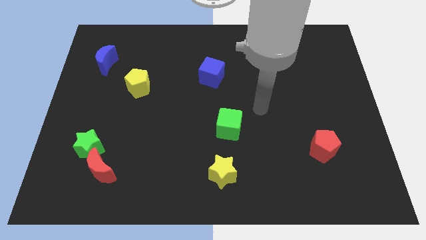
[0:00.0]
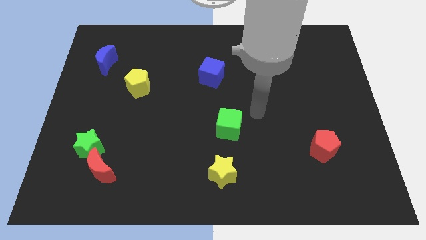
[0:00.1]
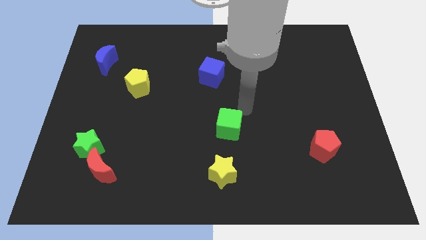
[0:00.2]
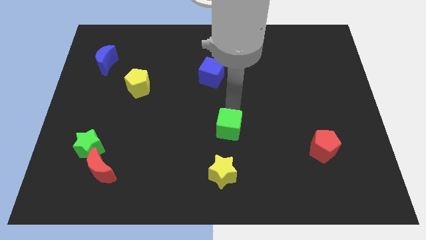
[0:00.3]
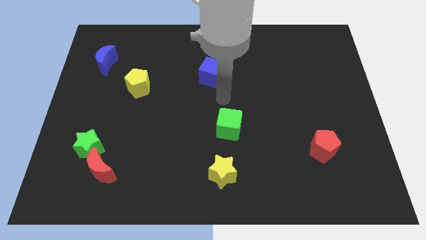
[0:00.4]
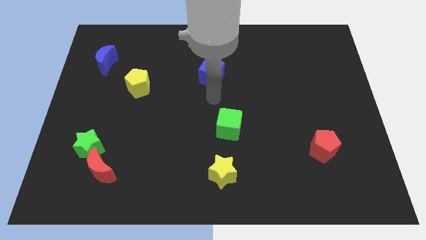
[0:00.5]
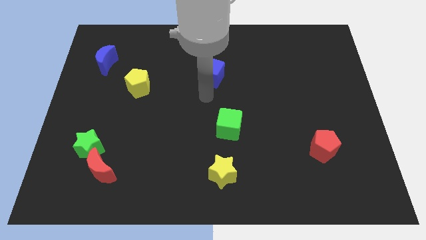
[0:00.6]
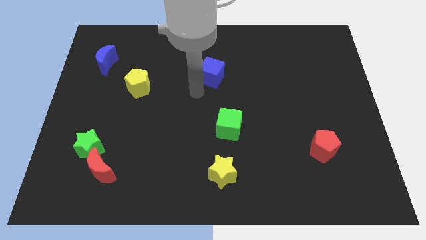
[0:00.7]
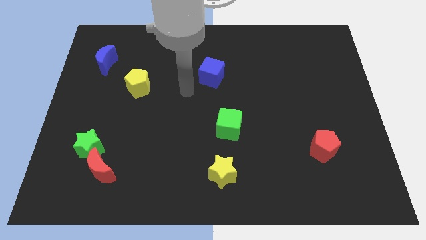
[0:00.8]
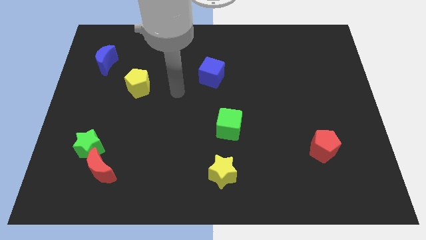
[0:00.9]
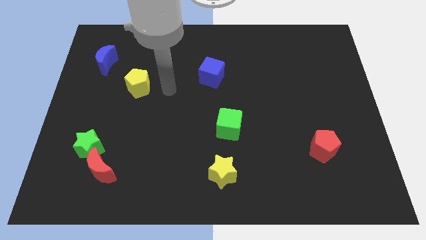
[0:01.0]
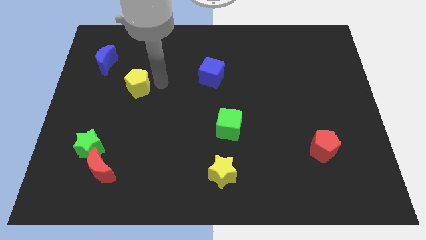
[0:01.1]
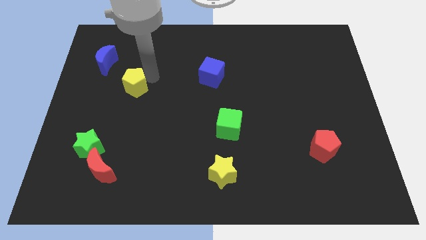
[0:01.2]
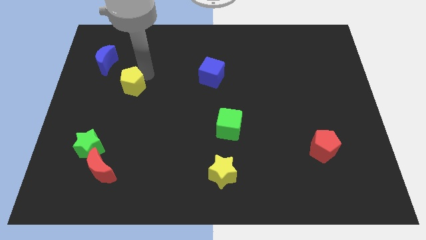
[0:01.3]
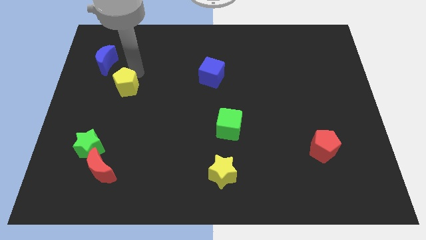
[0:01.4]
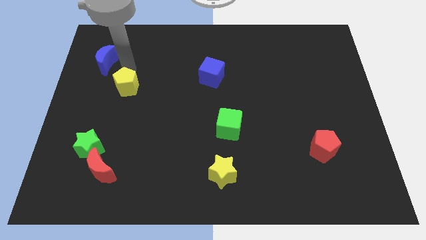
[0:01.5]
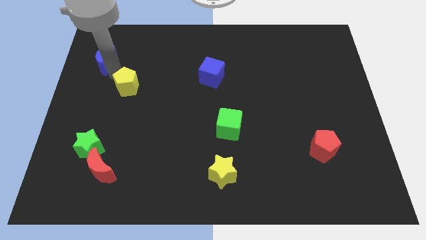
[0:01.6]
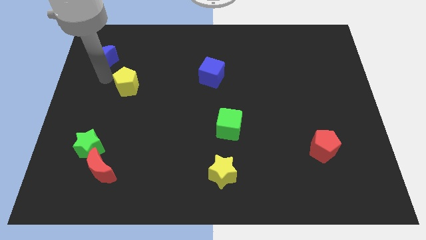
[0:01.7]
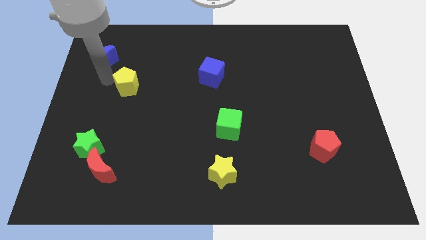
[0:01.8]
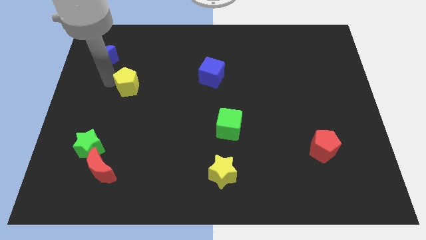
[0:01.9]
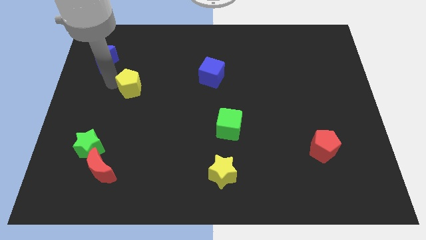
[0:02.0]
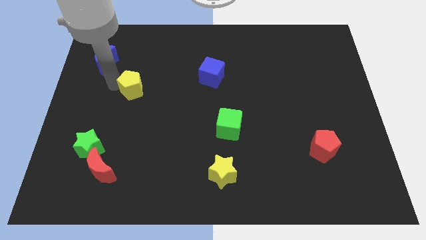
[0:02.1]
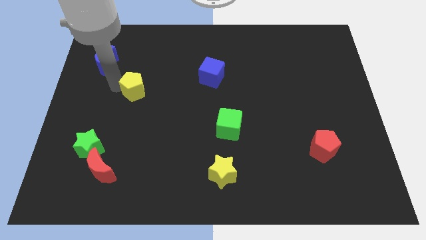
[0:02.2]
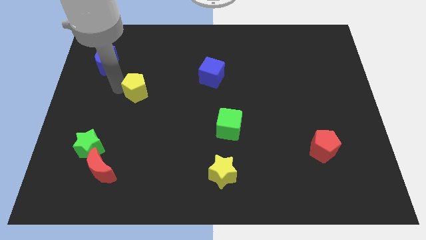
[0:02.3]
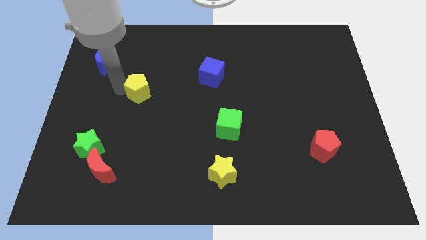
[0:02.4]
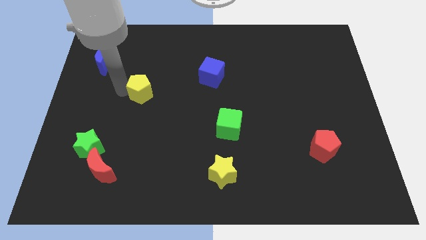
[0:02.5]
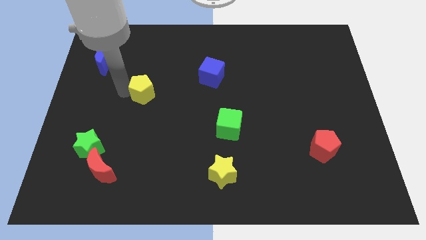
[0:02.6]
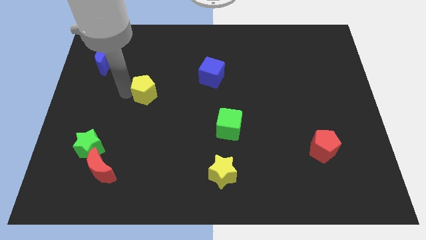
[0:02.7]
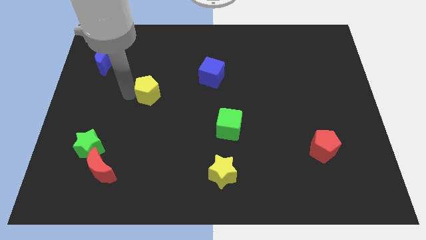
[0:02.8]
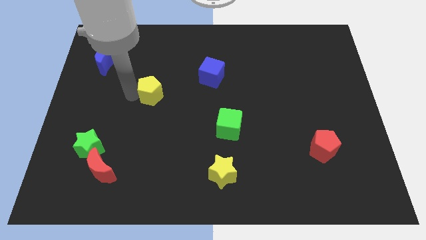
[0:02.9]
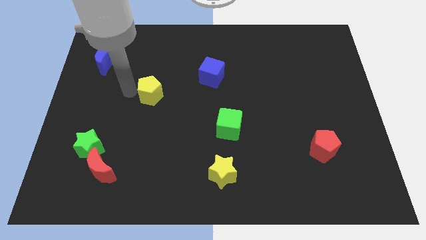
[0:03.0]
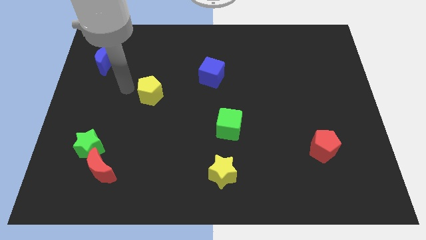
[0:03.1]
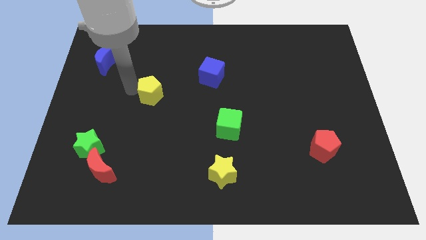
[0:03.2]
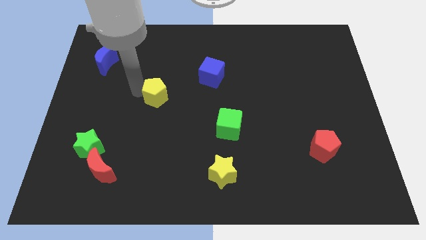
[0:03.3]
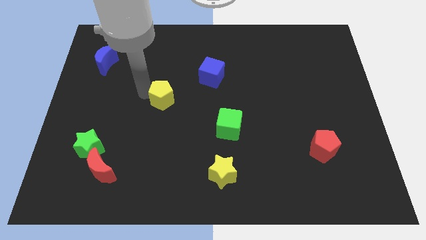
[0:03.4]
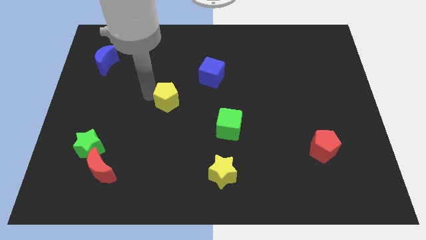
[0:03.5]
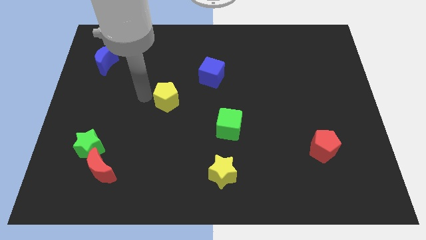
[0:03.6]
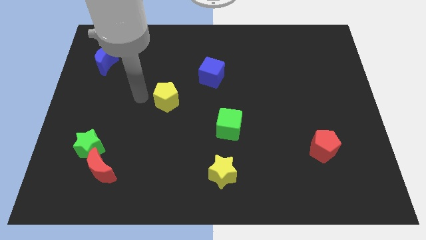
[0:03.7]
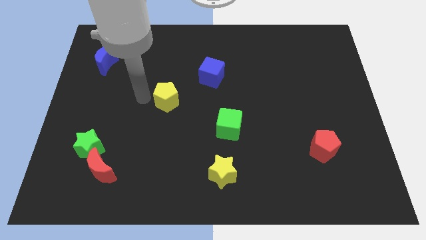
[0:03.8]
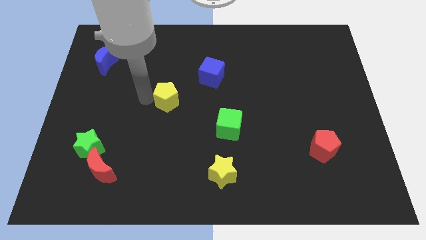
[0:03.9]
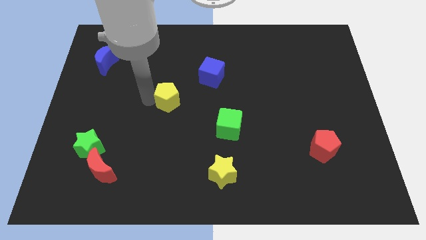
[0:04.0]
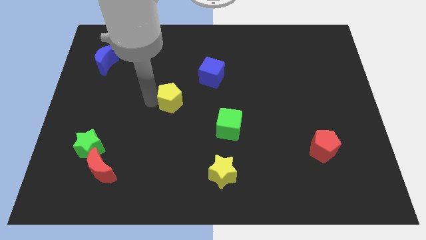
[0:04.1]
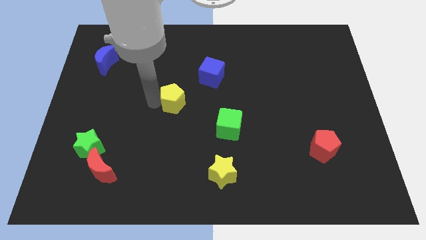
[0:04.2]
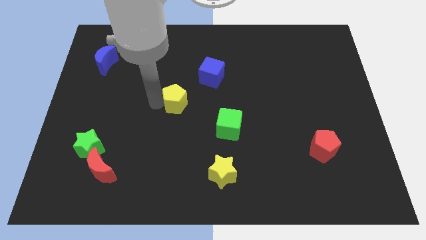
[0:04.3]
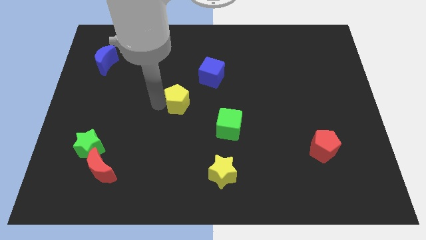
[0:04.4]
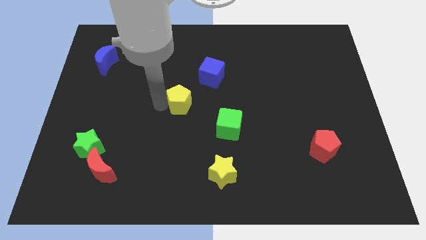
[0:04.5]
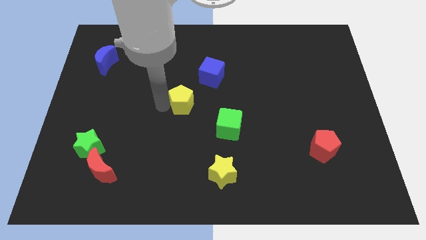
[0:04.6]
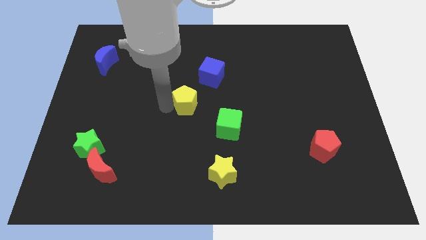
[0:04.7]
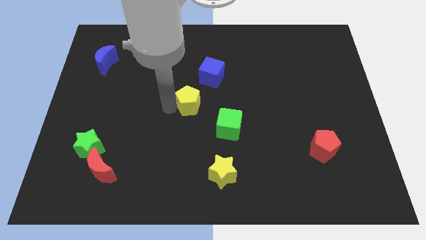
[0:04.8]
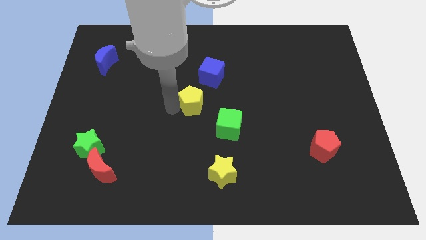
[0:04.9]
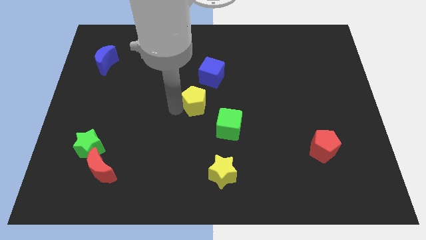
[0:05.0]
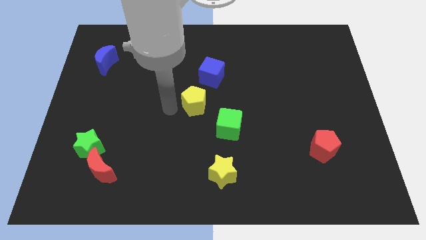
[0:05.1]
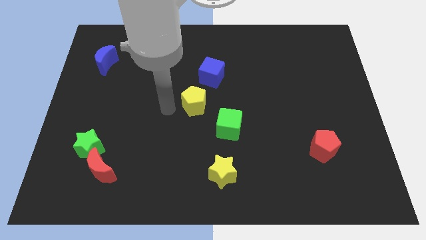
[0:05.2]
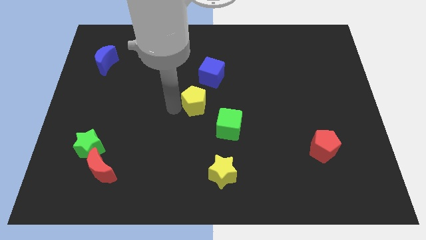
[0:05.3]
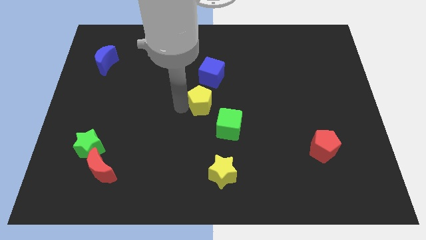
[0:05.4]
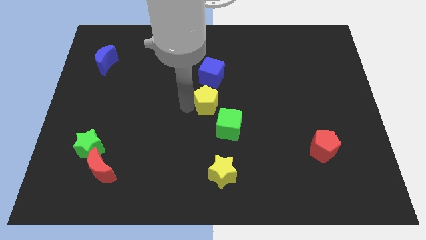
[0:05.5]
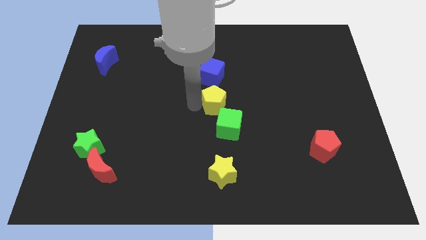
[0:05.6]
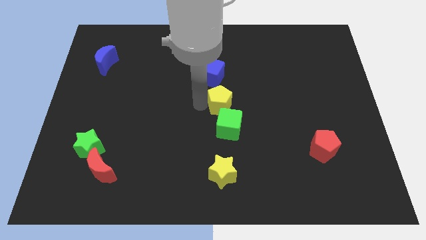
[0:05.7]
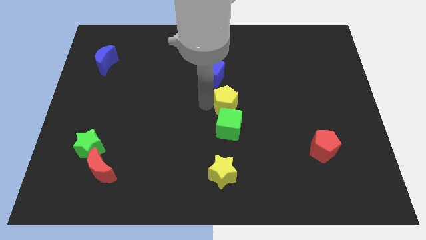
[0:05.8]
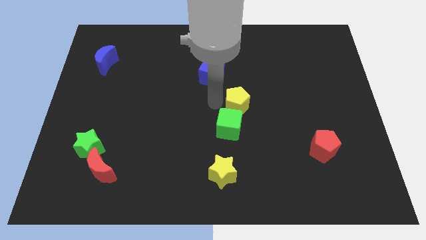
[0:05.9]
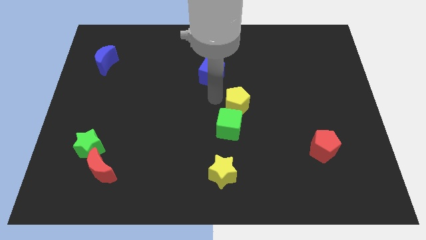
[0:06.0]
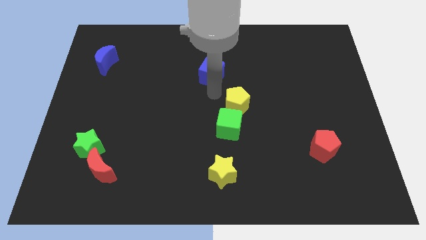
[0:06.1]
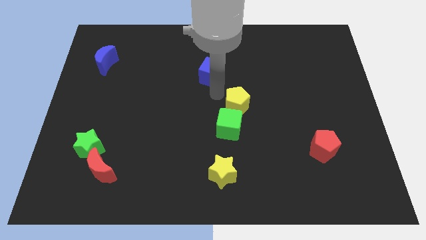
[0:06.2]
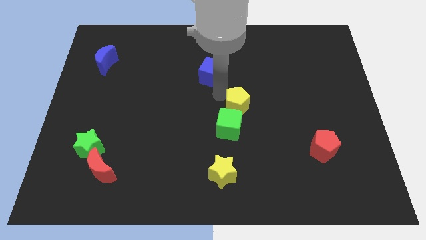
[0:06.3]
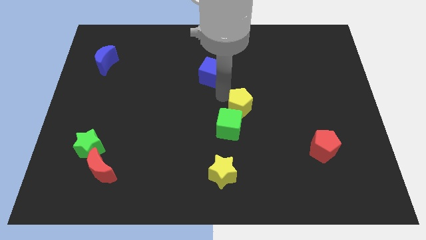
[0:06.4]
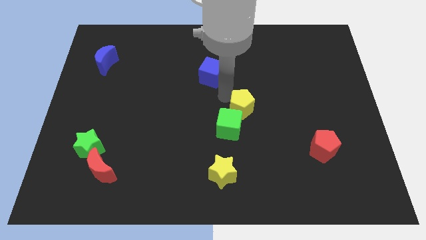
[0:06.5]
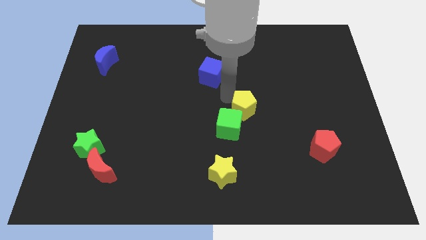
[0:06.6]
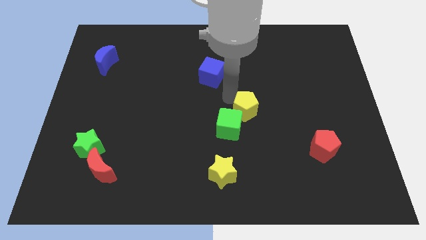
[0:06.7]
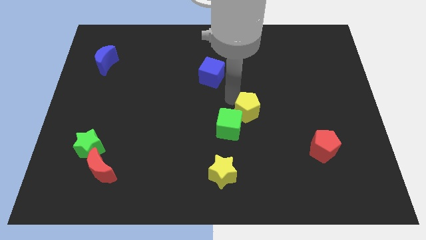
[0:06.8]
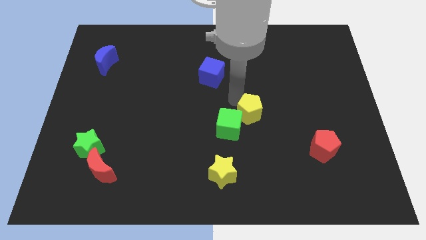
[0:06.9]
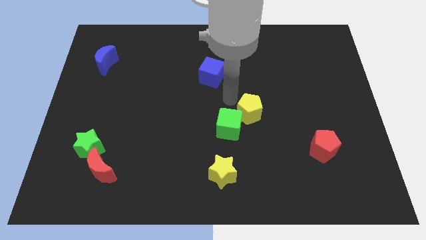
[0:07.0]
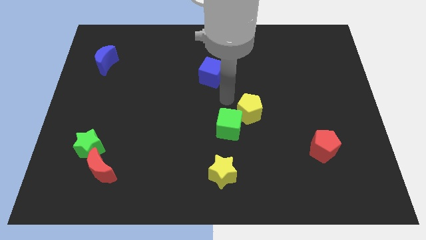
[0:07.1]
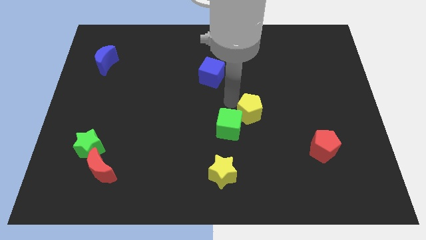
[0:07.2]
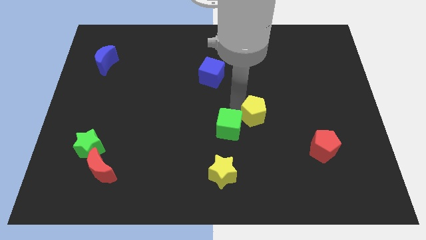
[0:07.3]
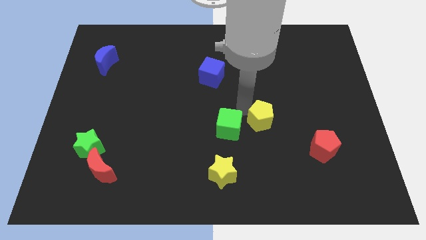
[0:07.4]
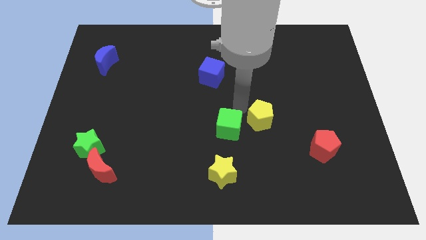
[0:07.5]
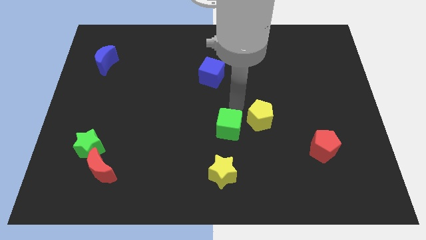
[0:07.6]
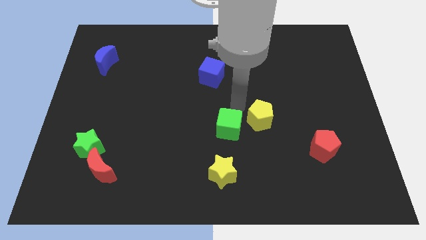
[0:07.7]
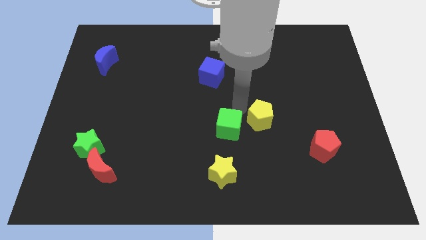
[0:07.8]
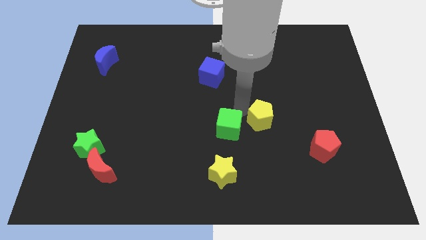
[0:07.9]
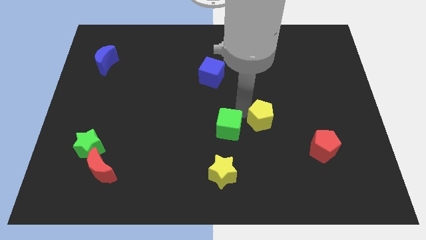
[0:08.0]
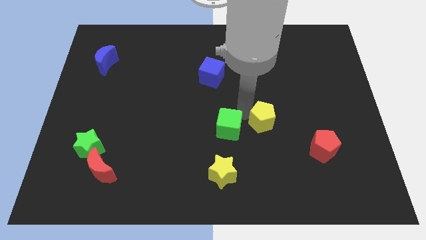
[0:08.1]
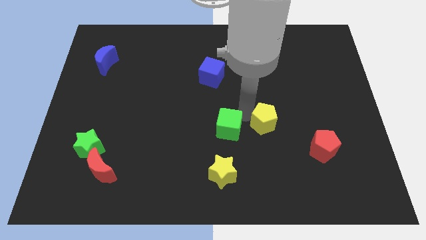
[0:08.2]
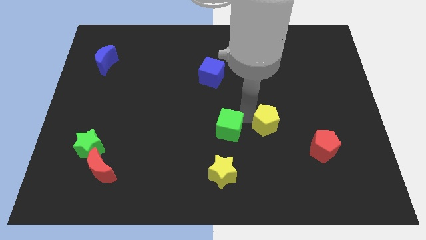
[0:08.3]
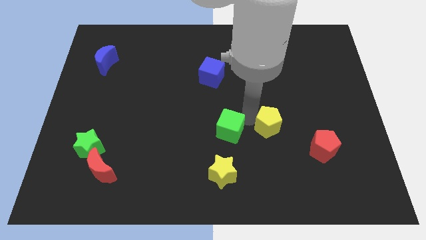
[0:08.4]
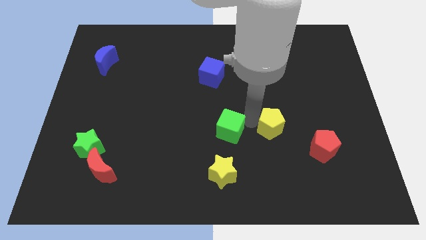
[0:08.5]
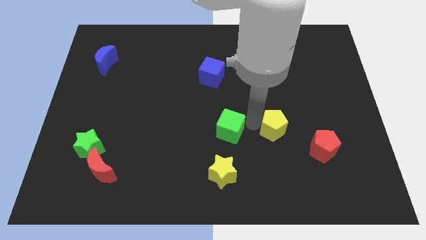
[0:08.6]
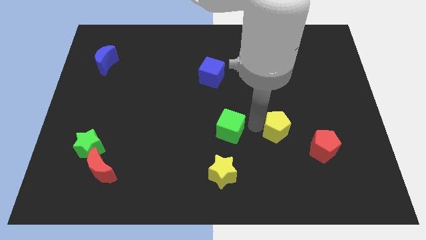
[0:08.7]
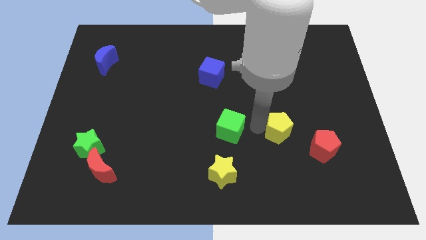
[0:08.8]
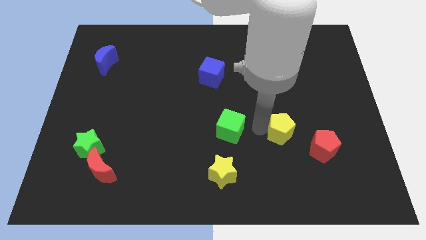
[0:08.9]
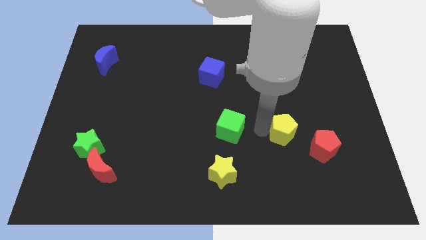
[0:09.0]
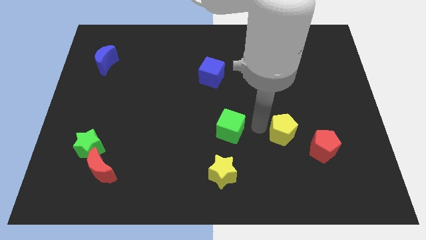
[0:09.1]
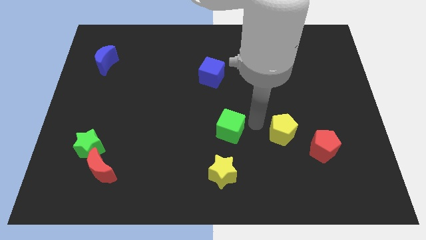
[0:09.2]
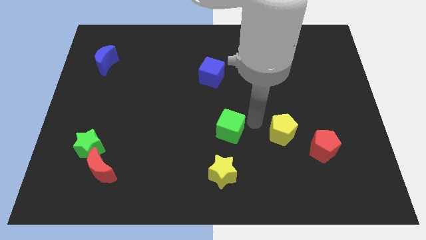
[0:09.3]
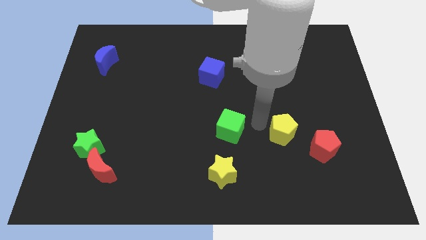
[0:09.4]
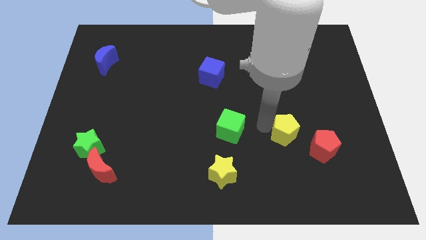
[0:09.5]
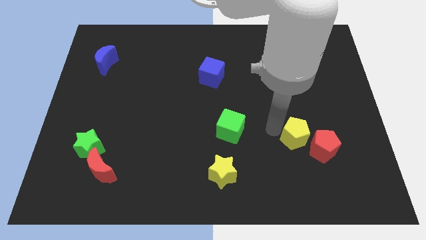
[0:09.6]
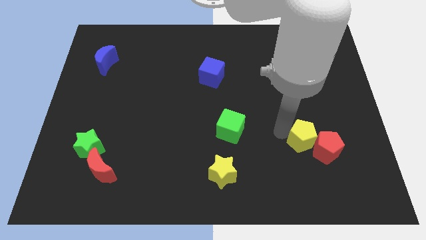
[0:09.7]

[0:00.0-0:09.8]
put the yellow pentagon close to the red pentagon
